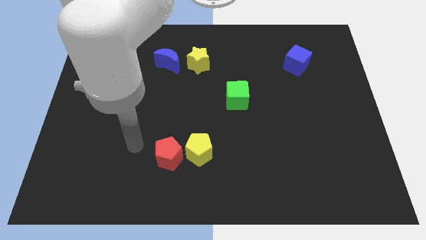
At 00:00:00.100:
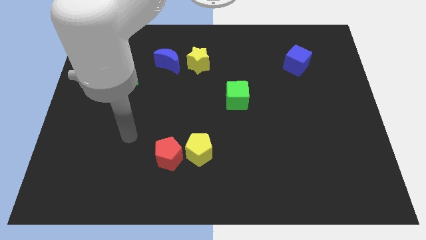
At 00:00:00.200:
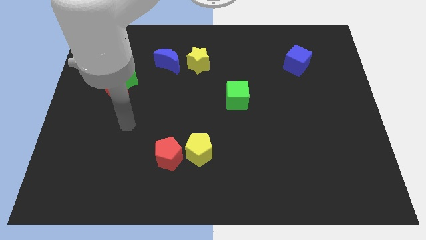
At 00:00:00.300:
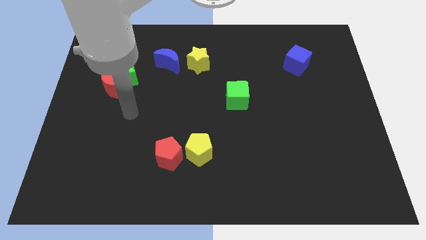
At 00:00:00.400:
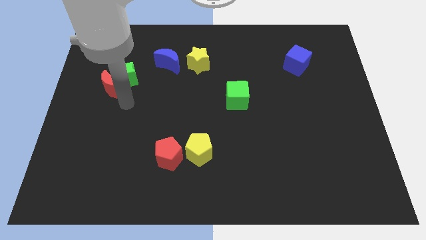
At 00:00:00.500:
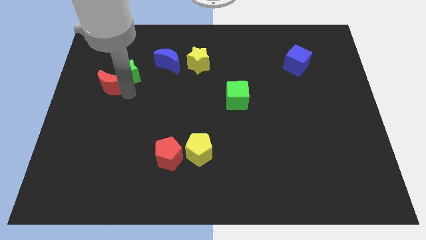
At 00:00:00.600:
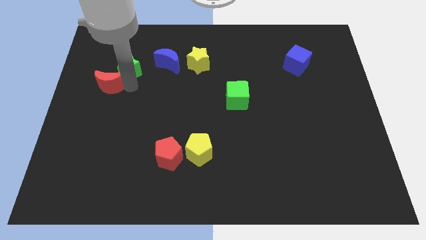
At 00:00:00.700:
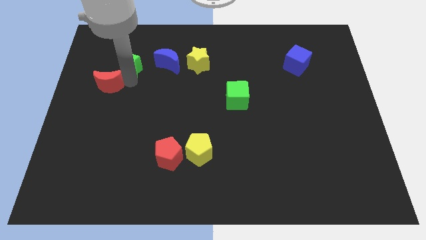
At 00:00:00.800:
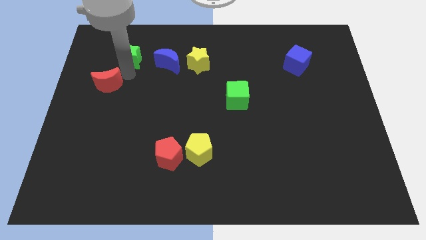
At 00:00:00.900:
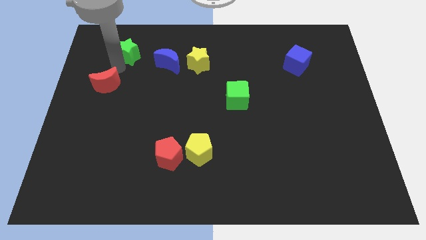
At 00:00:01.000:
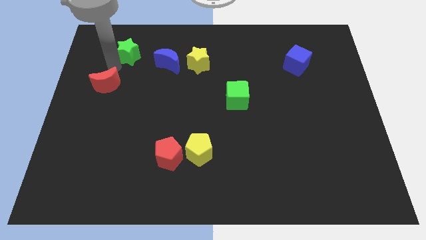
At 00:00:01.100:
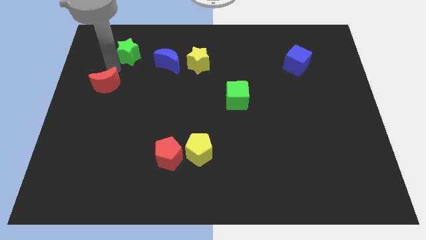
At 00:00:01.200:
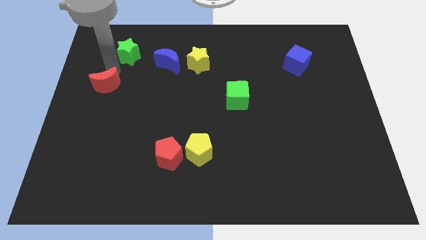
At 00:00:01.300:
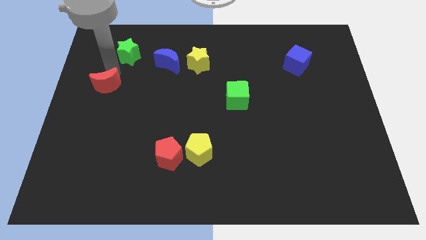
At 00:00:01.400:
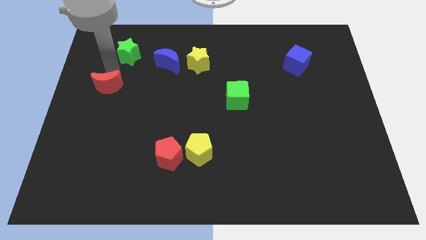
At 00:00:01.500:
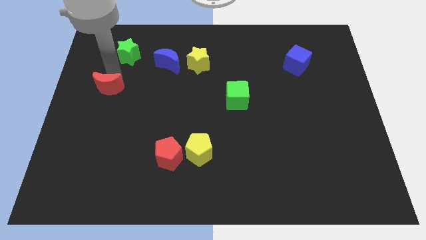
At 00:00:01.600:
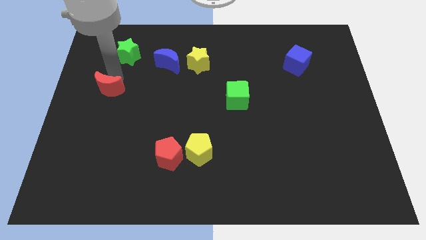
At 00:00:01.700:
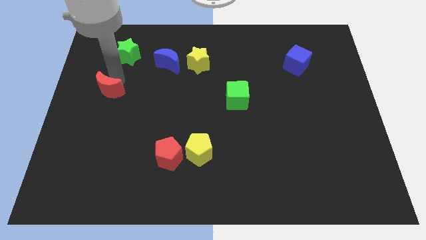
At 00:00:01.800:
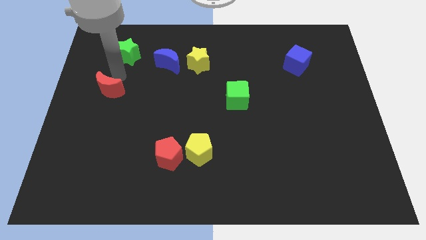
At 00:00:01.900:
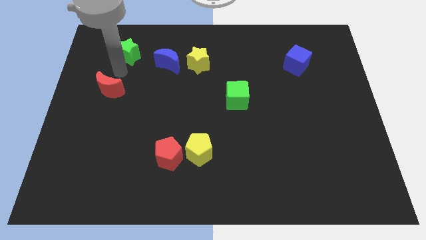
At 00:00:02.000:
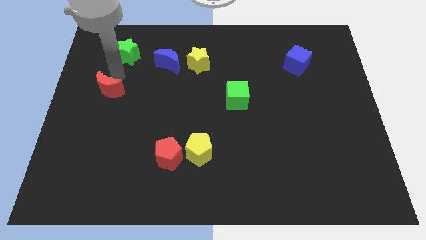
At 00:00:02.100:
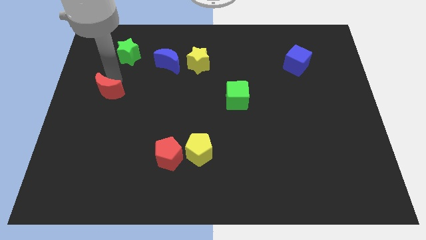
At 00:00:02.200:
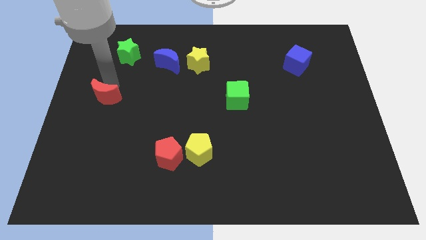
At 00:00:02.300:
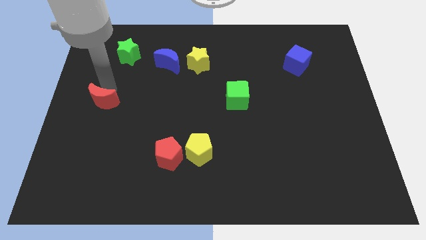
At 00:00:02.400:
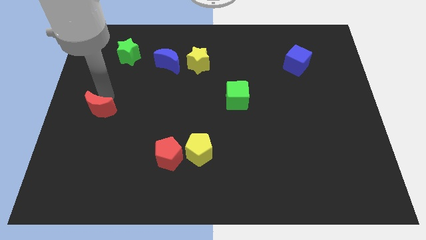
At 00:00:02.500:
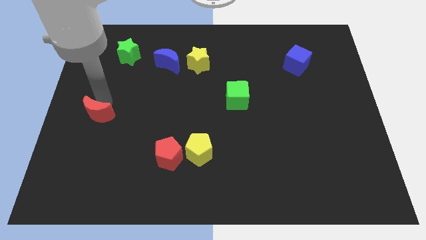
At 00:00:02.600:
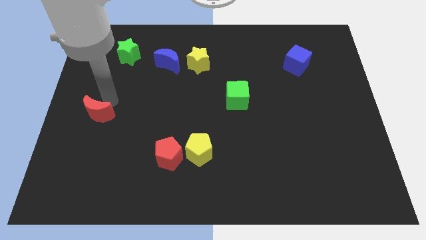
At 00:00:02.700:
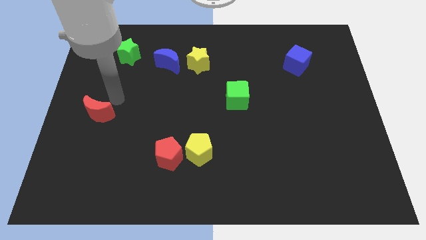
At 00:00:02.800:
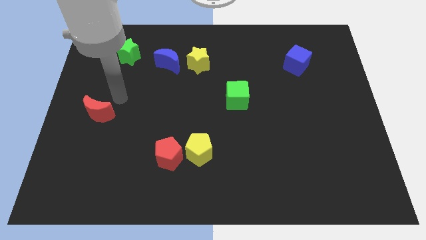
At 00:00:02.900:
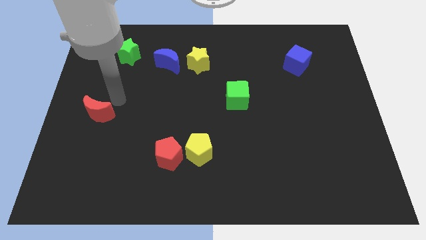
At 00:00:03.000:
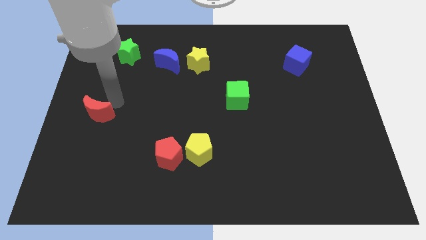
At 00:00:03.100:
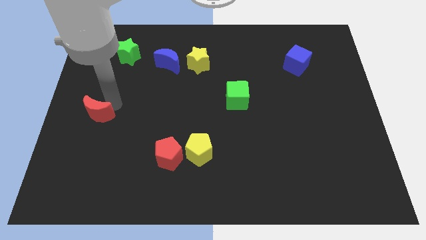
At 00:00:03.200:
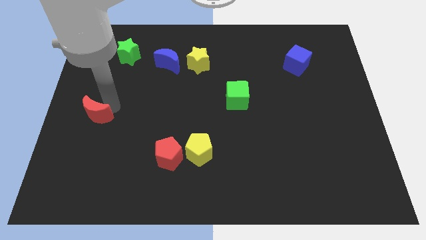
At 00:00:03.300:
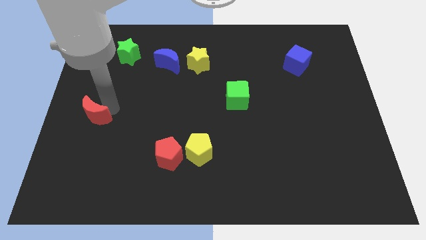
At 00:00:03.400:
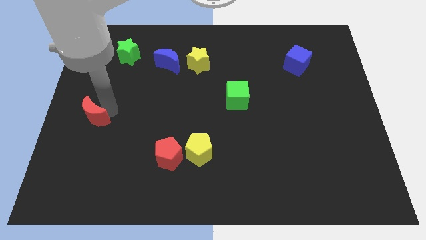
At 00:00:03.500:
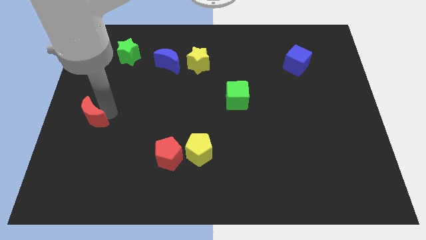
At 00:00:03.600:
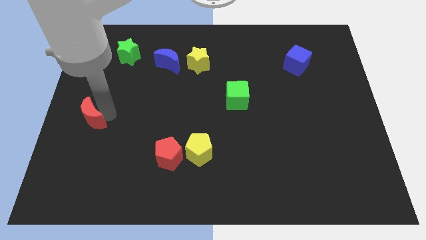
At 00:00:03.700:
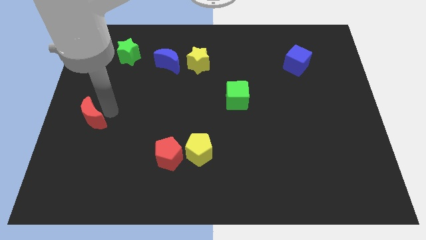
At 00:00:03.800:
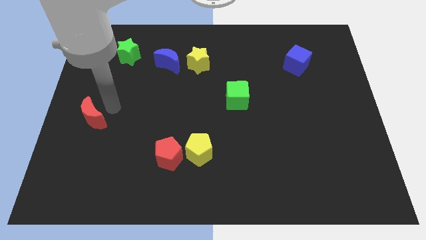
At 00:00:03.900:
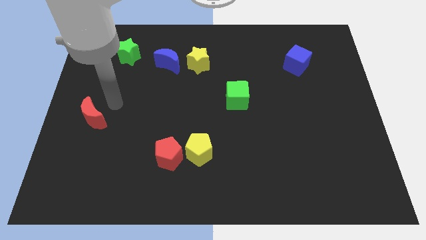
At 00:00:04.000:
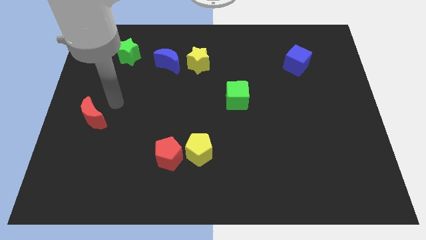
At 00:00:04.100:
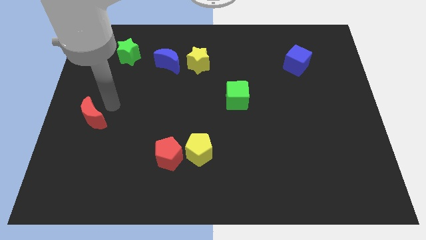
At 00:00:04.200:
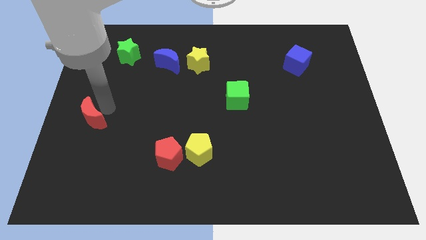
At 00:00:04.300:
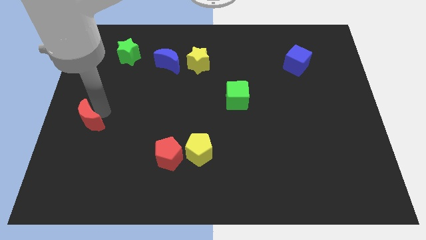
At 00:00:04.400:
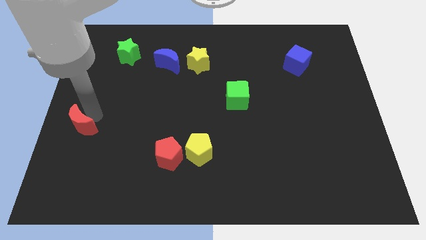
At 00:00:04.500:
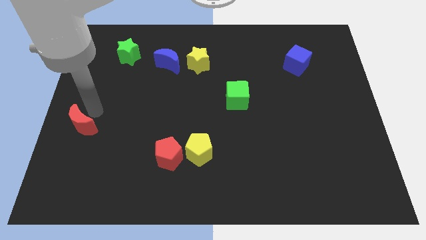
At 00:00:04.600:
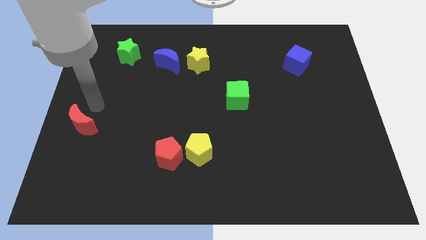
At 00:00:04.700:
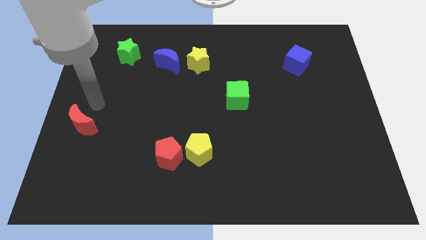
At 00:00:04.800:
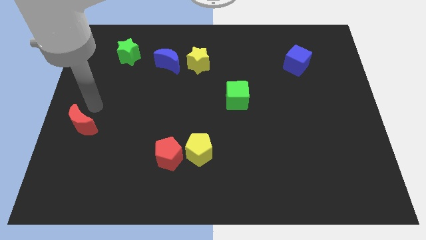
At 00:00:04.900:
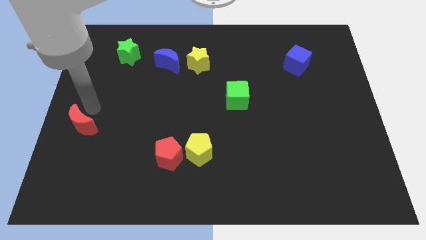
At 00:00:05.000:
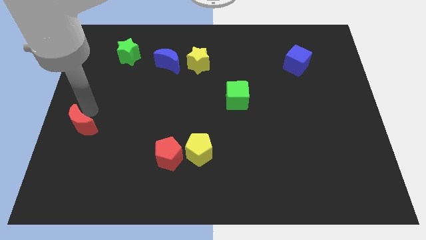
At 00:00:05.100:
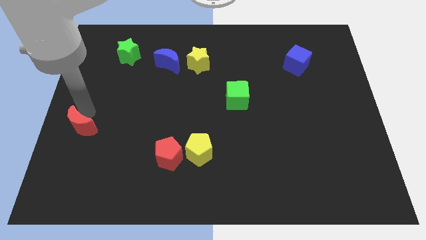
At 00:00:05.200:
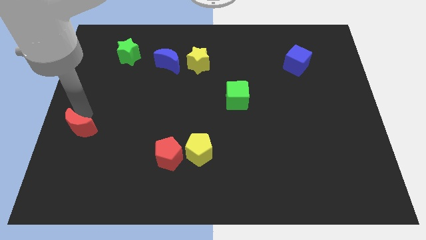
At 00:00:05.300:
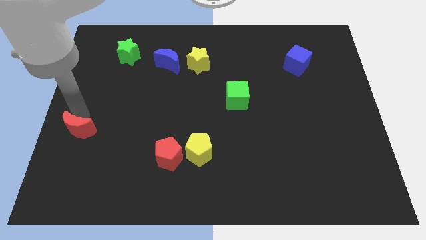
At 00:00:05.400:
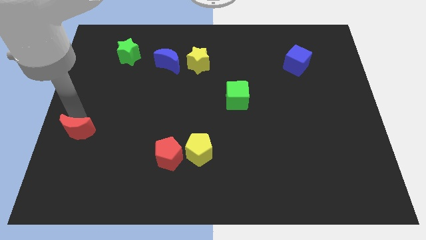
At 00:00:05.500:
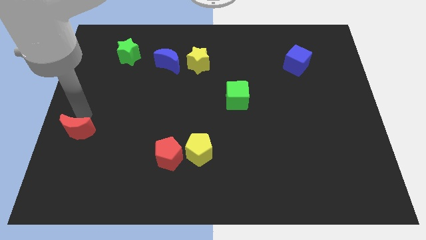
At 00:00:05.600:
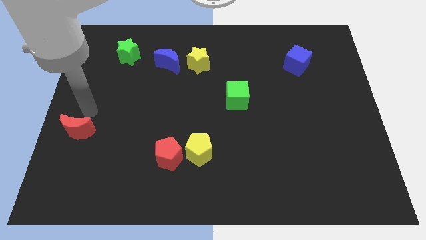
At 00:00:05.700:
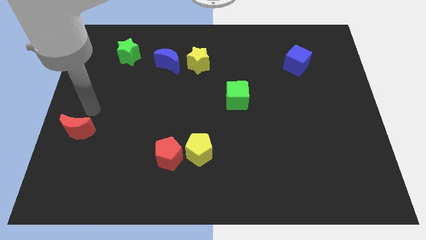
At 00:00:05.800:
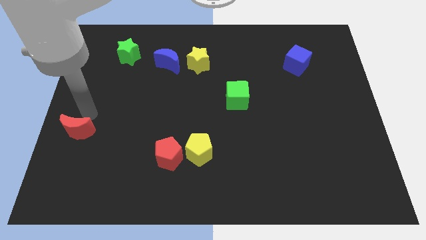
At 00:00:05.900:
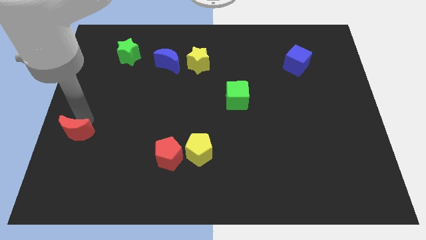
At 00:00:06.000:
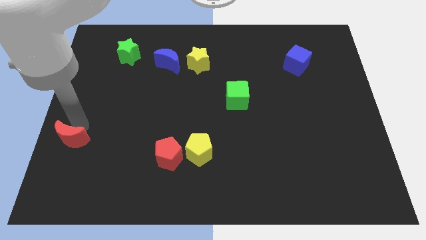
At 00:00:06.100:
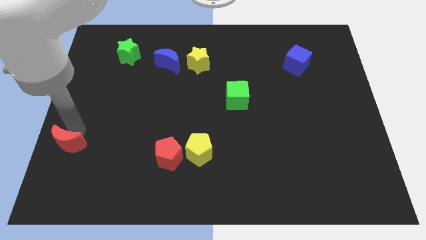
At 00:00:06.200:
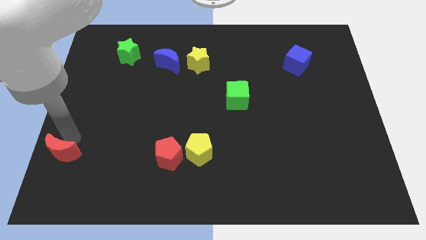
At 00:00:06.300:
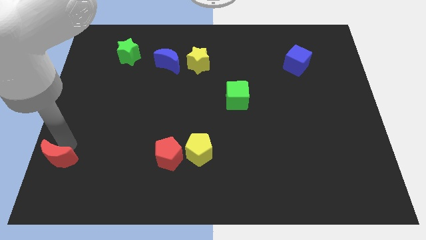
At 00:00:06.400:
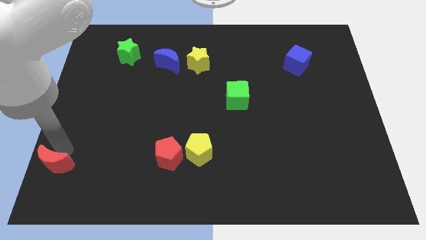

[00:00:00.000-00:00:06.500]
push the red moon to the bottom left of the board

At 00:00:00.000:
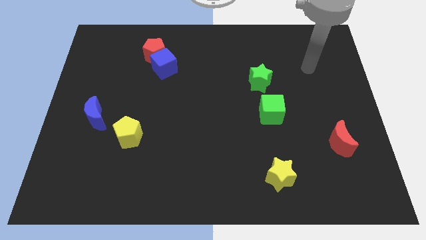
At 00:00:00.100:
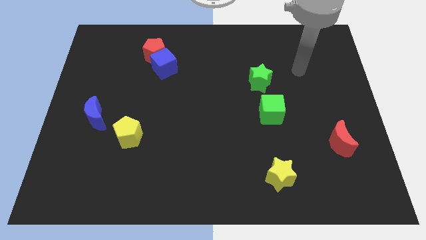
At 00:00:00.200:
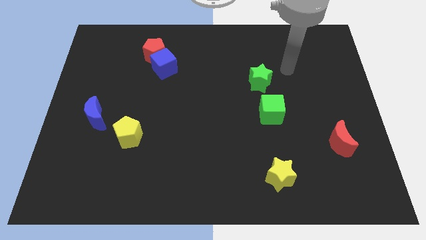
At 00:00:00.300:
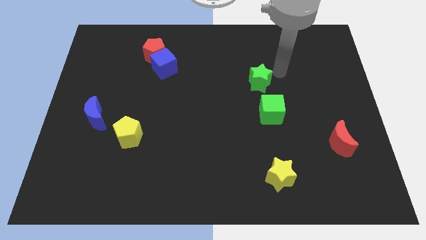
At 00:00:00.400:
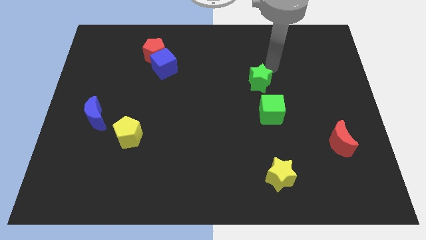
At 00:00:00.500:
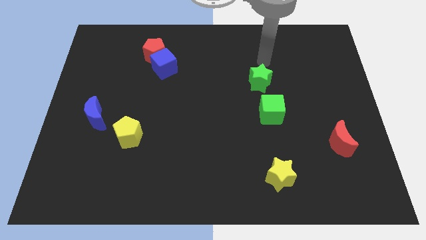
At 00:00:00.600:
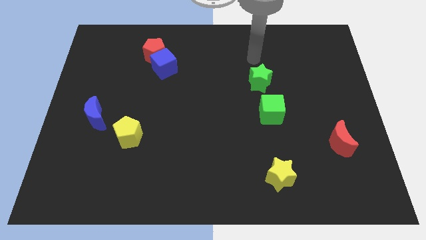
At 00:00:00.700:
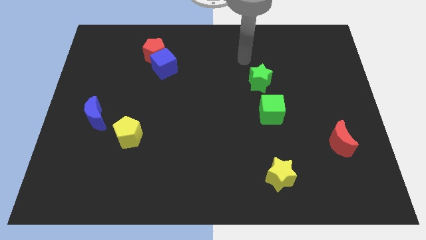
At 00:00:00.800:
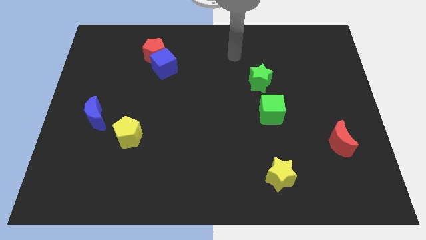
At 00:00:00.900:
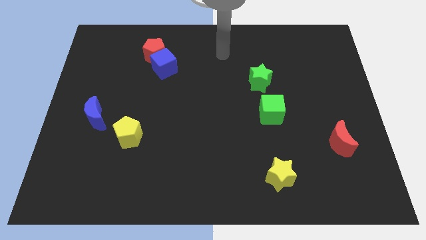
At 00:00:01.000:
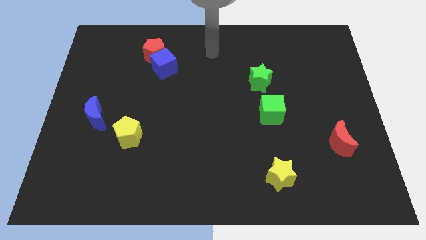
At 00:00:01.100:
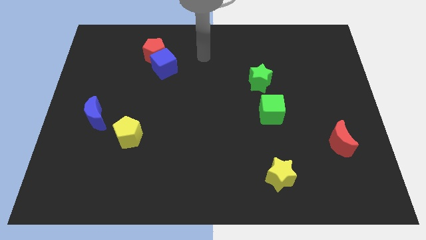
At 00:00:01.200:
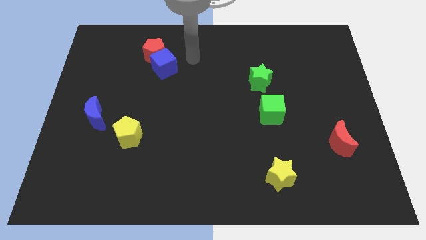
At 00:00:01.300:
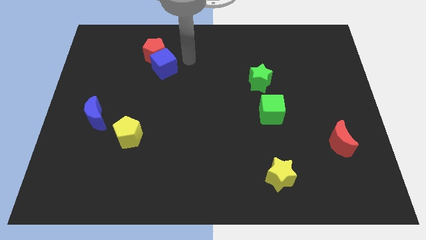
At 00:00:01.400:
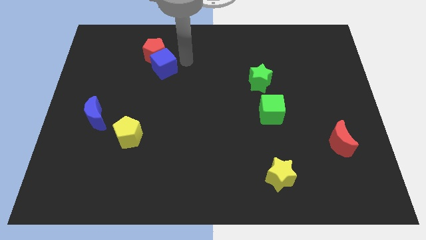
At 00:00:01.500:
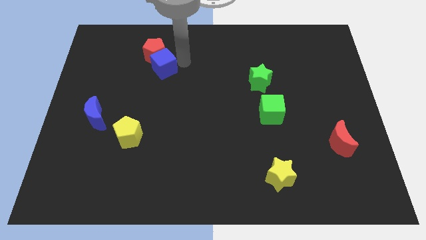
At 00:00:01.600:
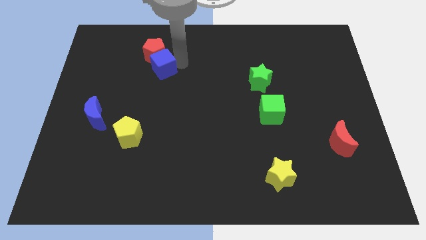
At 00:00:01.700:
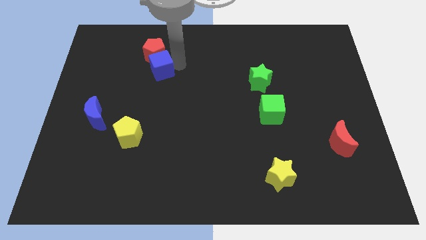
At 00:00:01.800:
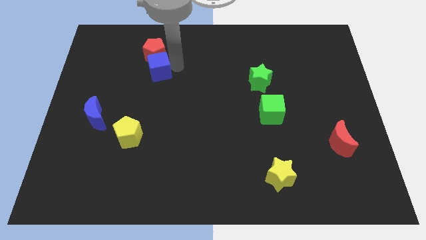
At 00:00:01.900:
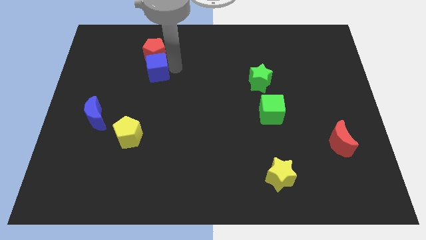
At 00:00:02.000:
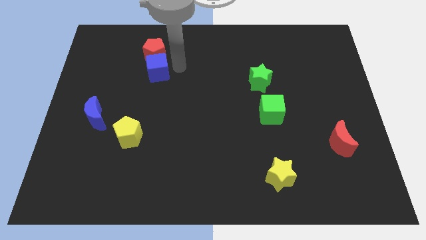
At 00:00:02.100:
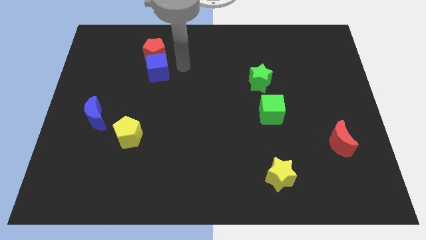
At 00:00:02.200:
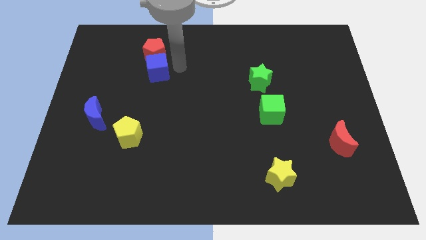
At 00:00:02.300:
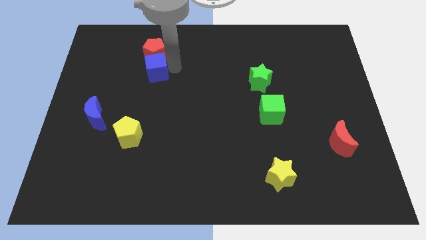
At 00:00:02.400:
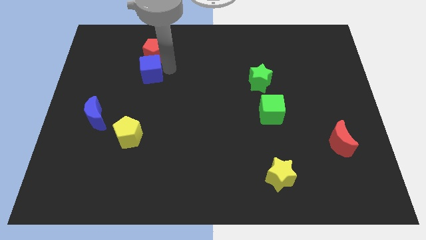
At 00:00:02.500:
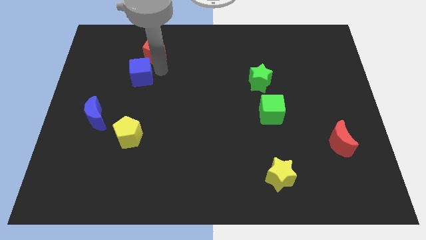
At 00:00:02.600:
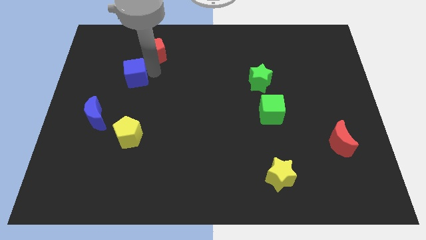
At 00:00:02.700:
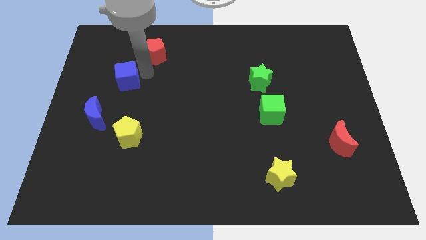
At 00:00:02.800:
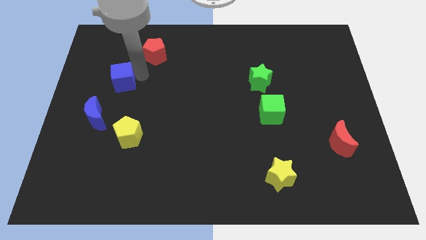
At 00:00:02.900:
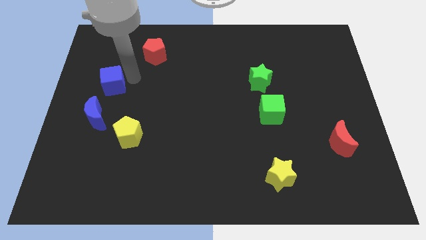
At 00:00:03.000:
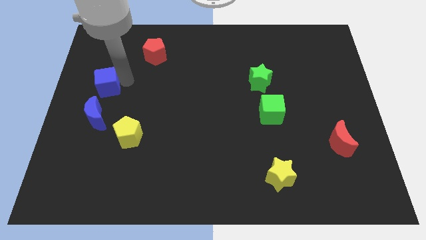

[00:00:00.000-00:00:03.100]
slide the blue cube to the center left
